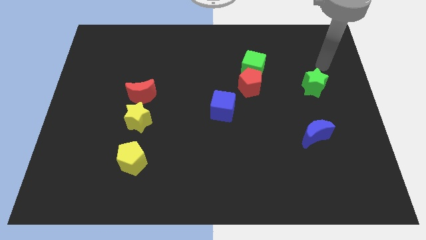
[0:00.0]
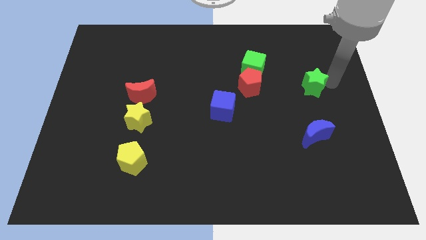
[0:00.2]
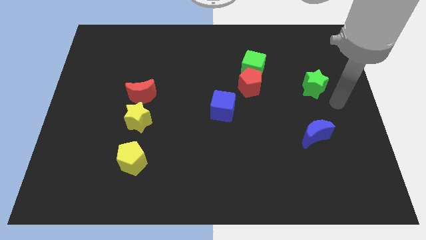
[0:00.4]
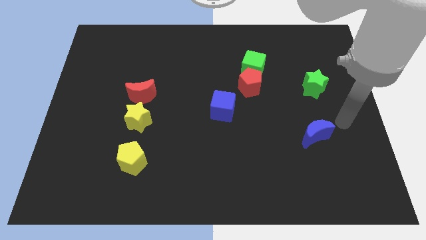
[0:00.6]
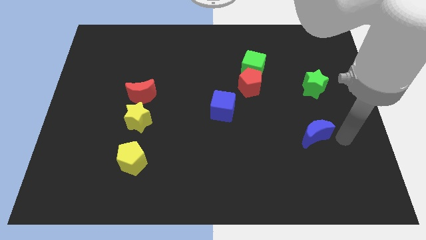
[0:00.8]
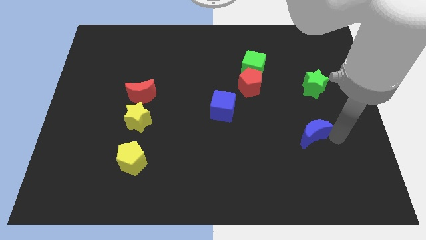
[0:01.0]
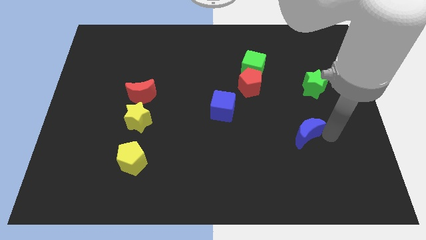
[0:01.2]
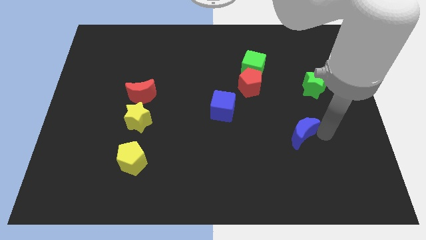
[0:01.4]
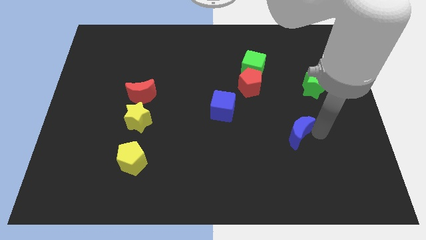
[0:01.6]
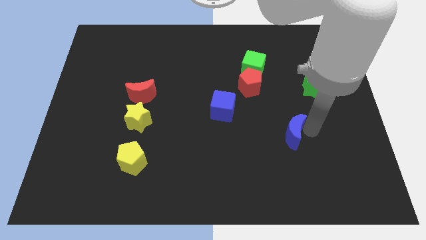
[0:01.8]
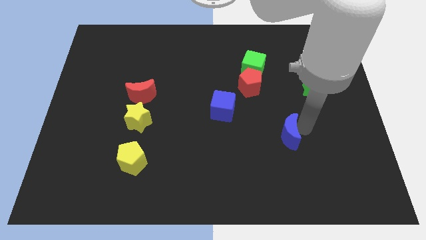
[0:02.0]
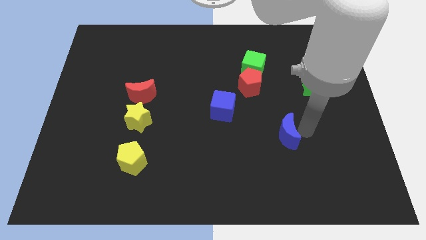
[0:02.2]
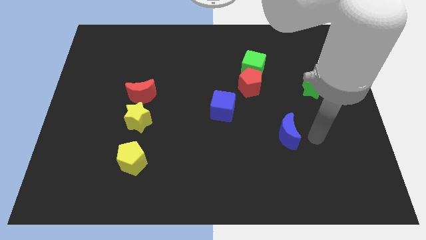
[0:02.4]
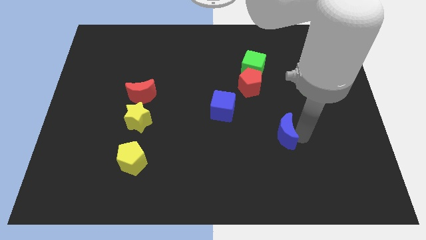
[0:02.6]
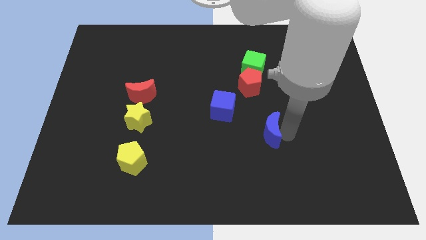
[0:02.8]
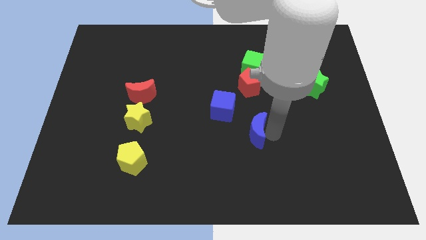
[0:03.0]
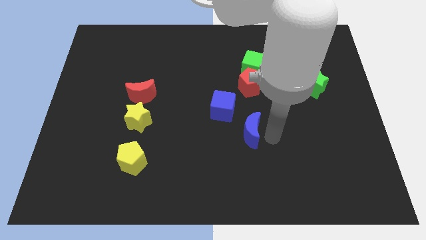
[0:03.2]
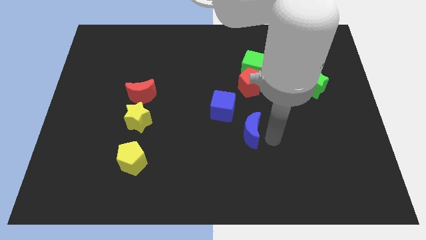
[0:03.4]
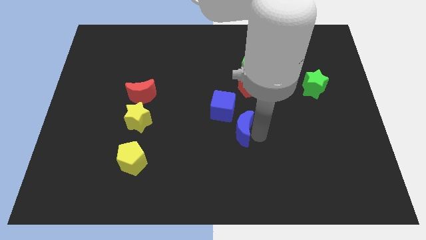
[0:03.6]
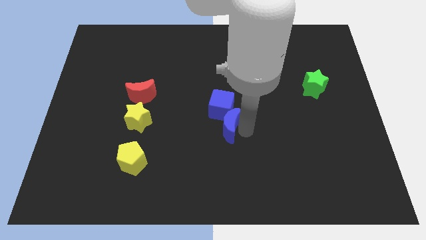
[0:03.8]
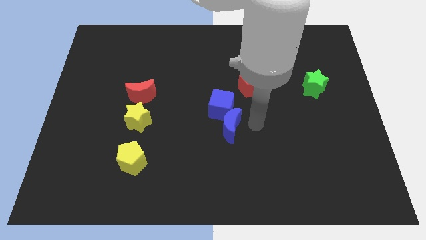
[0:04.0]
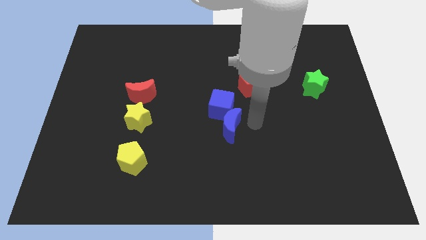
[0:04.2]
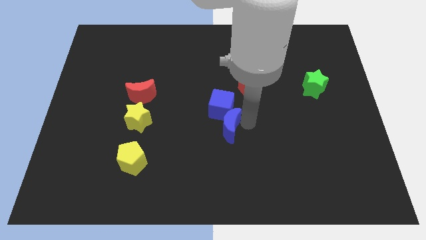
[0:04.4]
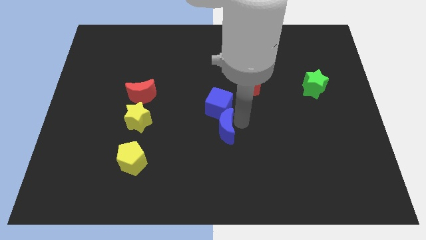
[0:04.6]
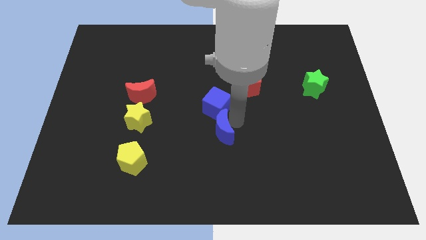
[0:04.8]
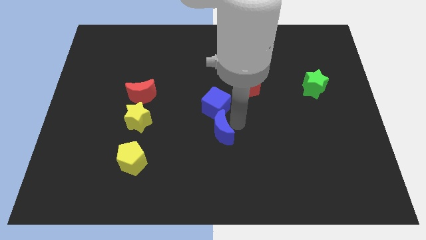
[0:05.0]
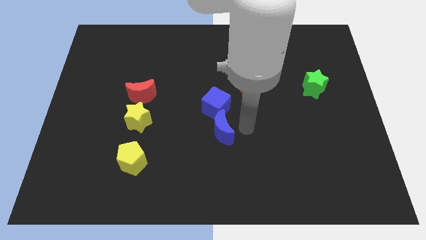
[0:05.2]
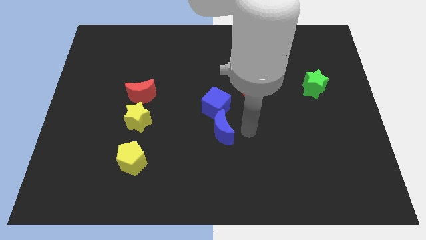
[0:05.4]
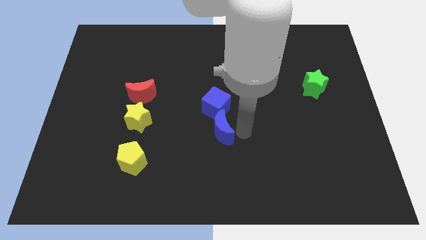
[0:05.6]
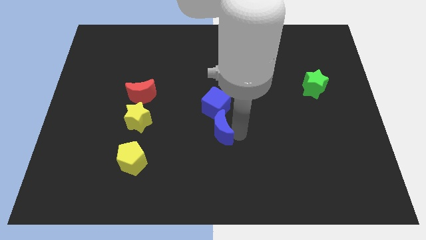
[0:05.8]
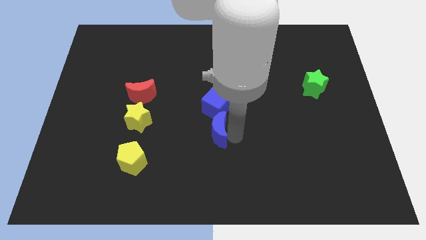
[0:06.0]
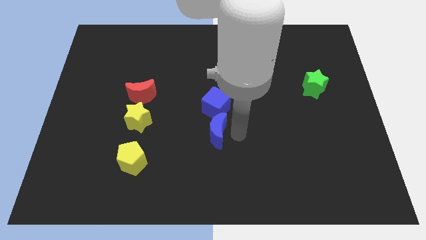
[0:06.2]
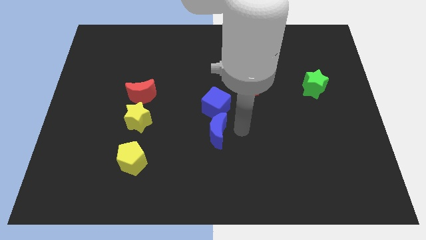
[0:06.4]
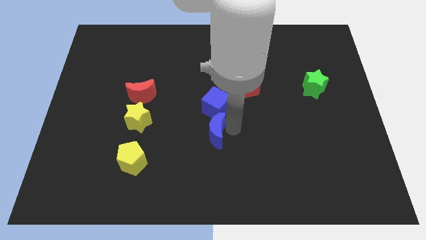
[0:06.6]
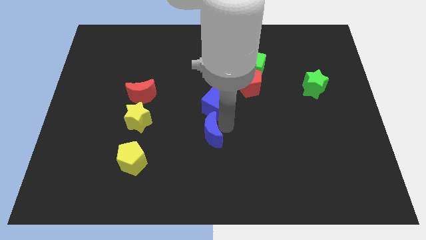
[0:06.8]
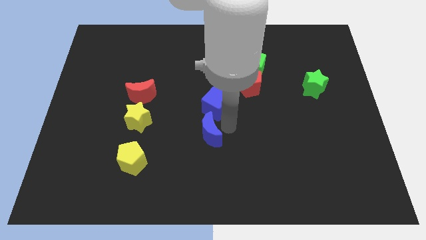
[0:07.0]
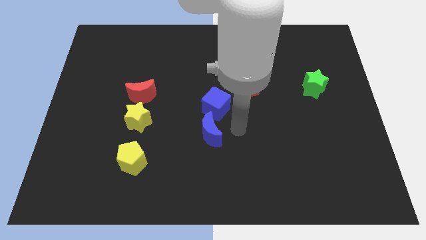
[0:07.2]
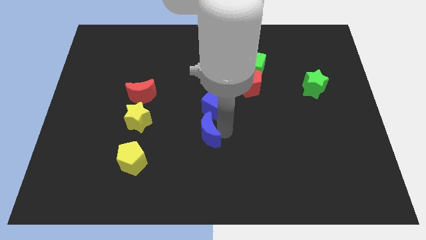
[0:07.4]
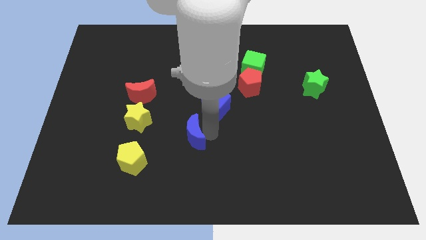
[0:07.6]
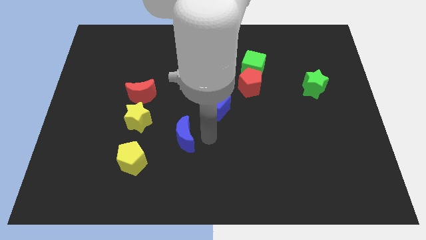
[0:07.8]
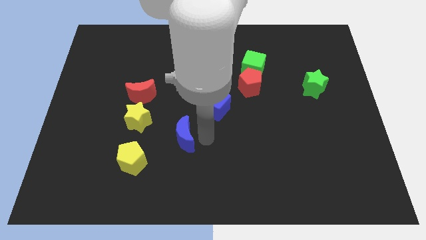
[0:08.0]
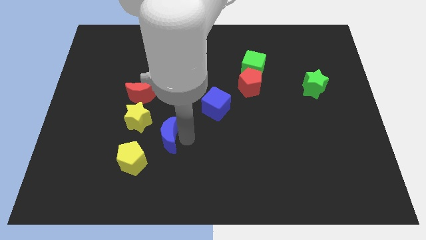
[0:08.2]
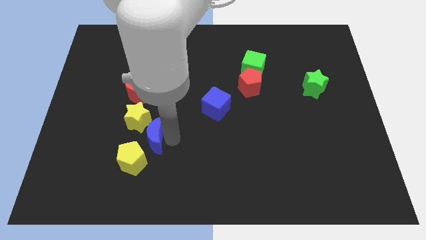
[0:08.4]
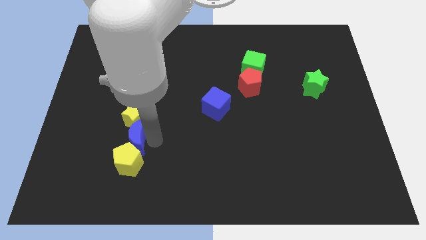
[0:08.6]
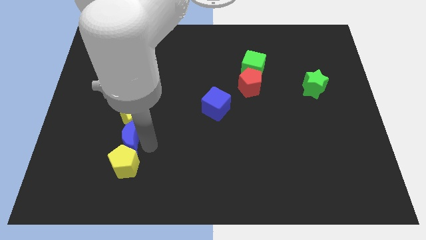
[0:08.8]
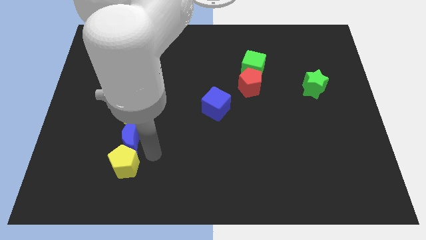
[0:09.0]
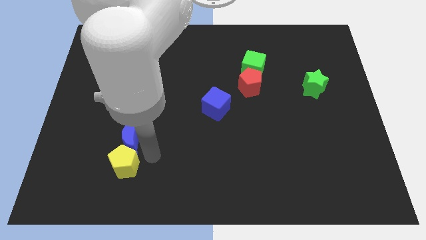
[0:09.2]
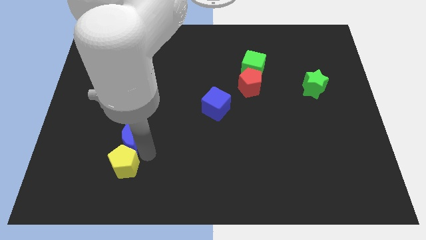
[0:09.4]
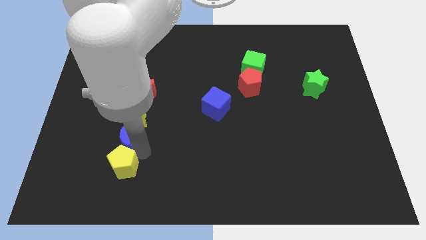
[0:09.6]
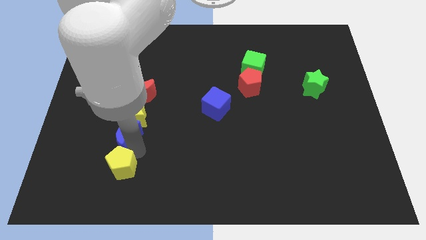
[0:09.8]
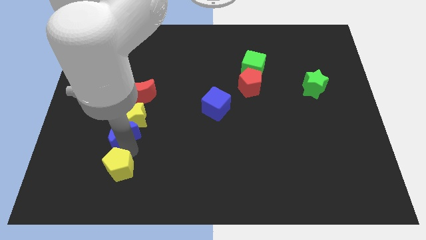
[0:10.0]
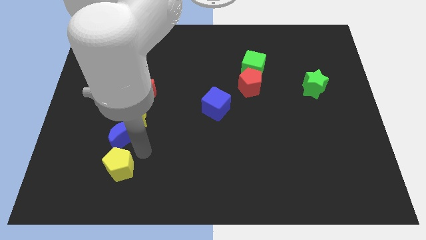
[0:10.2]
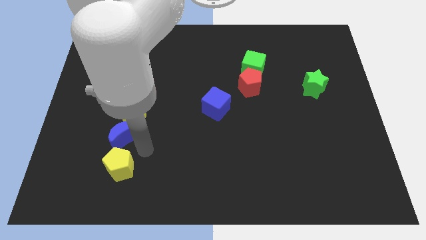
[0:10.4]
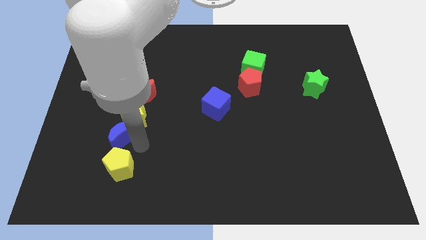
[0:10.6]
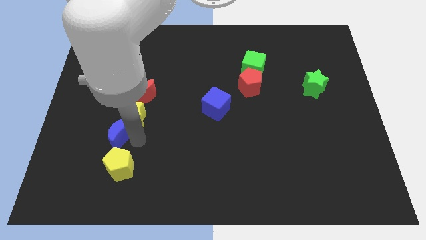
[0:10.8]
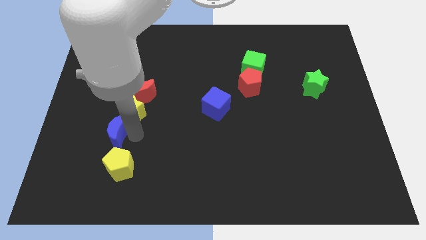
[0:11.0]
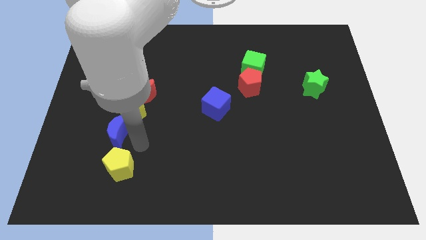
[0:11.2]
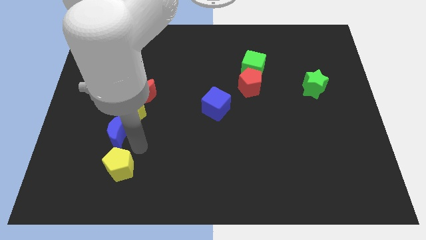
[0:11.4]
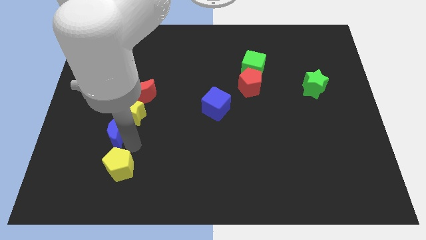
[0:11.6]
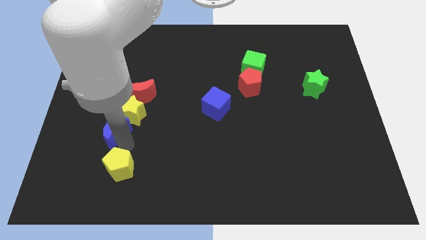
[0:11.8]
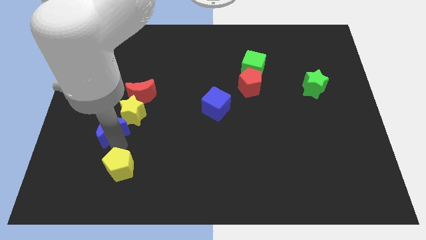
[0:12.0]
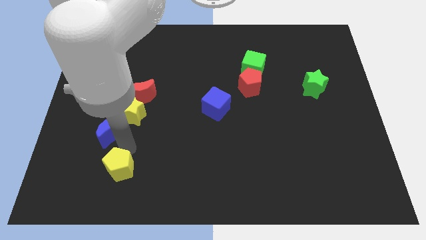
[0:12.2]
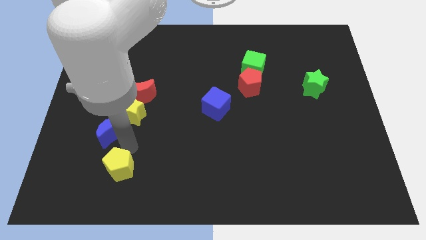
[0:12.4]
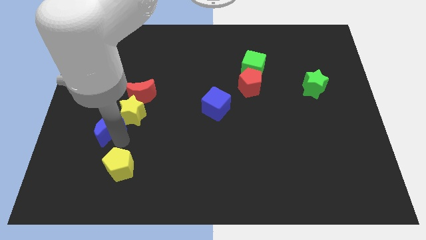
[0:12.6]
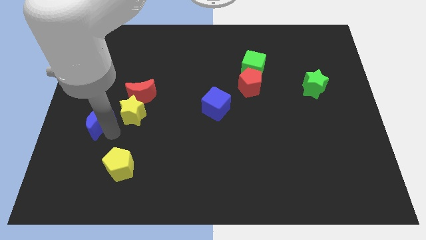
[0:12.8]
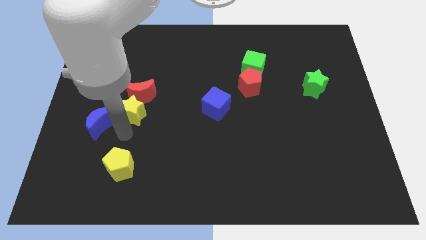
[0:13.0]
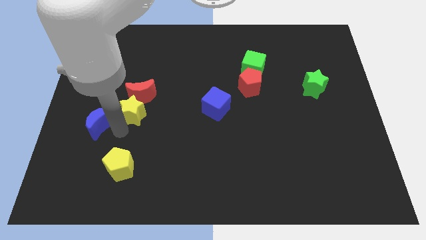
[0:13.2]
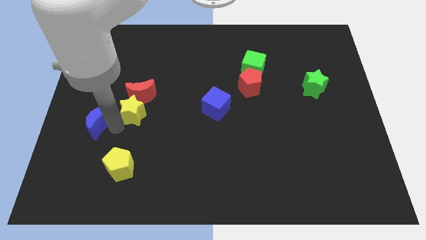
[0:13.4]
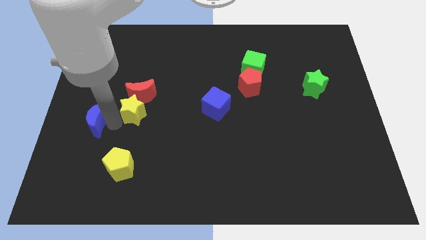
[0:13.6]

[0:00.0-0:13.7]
move the blue moon to the left side of the board
